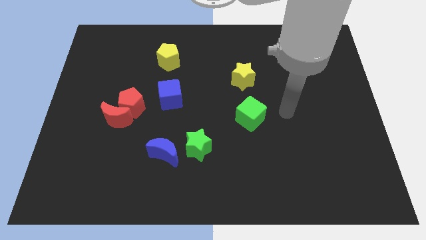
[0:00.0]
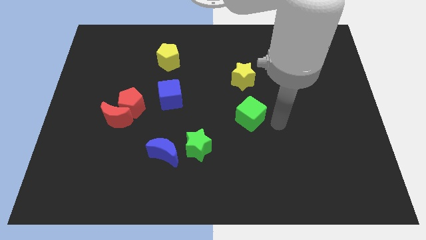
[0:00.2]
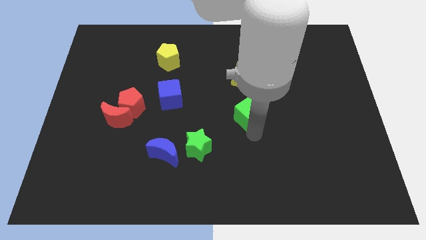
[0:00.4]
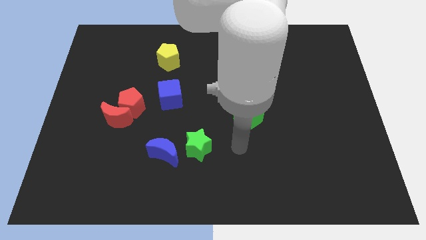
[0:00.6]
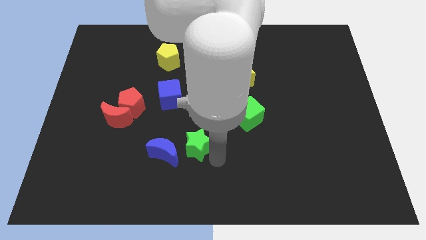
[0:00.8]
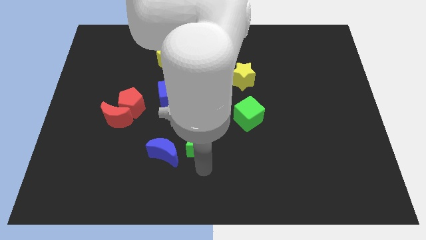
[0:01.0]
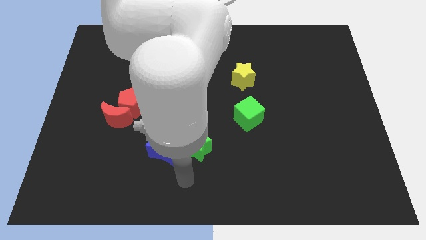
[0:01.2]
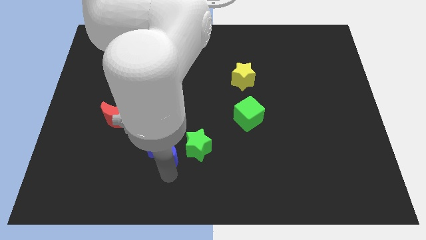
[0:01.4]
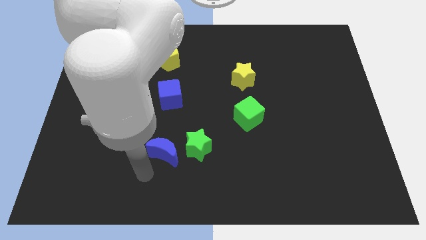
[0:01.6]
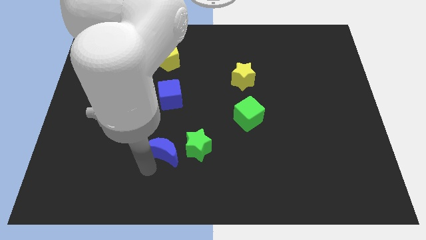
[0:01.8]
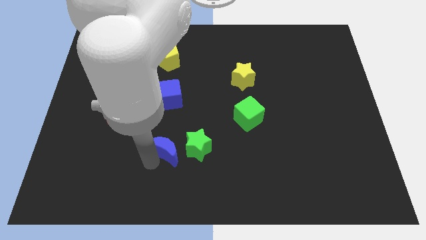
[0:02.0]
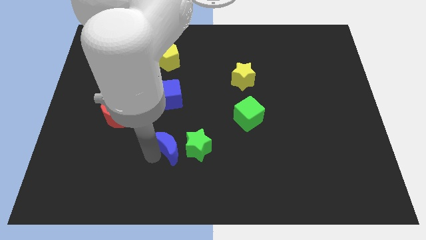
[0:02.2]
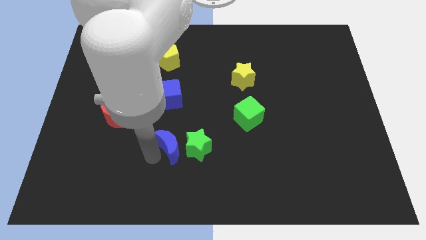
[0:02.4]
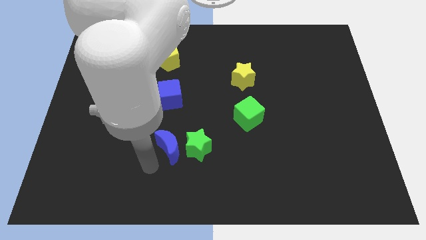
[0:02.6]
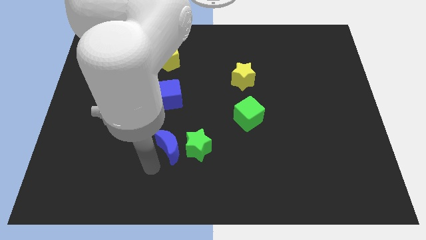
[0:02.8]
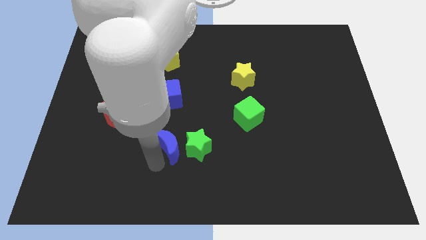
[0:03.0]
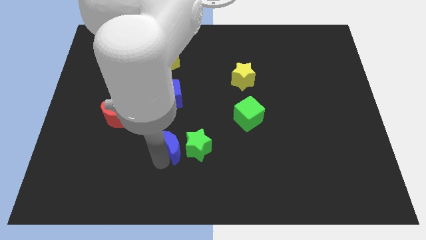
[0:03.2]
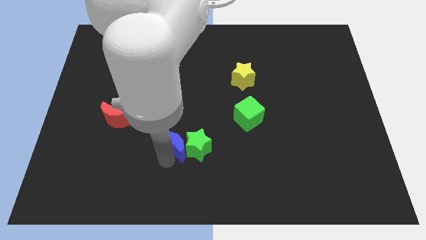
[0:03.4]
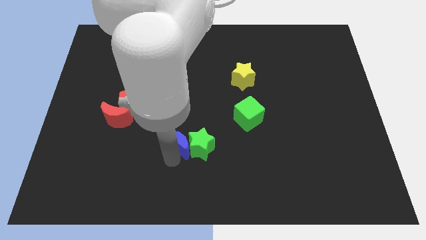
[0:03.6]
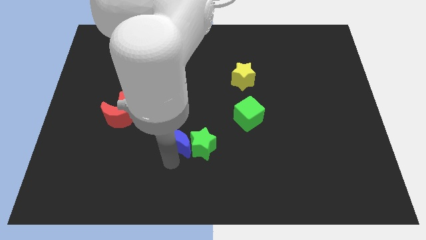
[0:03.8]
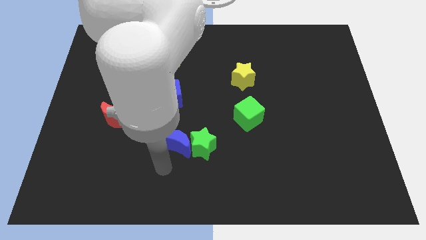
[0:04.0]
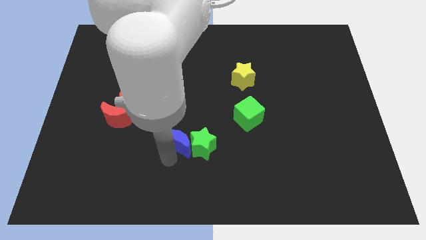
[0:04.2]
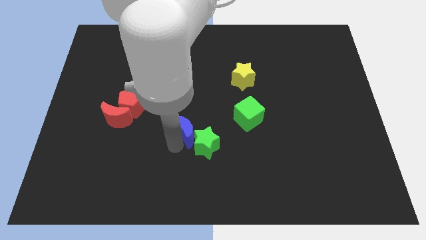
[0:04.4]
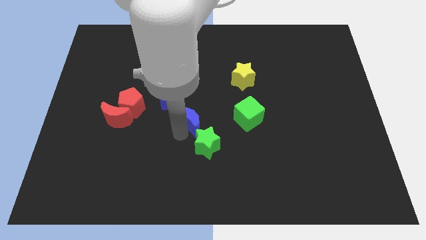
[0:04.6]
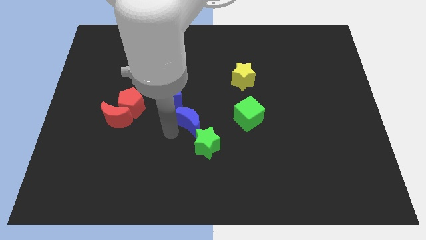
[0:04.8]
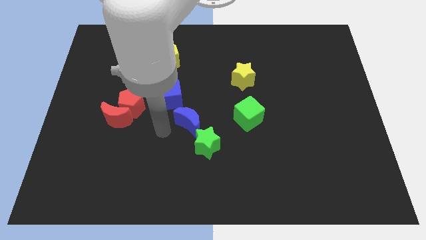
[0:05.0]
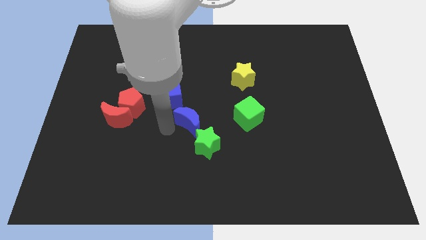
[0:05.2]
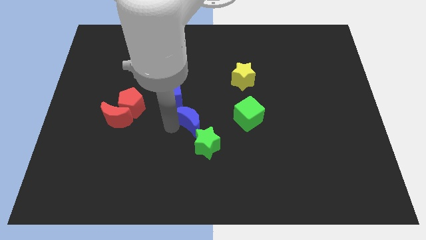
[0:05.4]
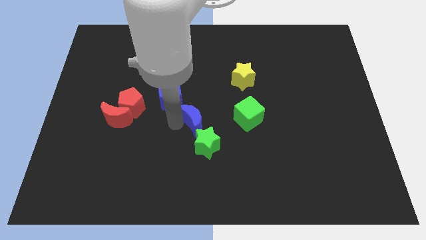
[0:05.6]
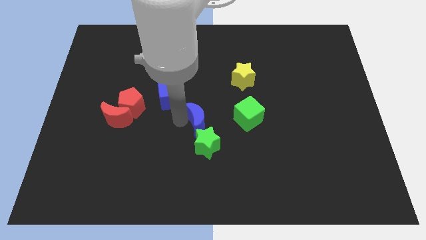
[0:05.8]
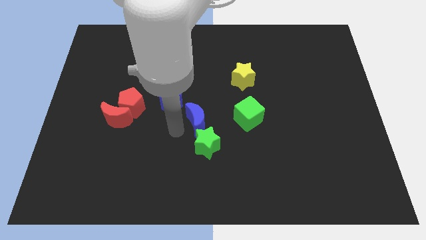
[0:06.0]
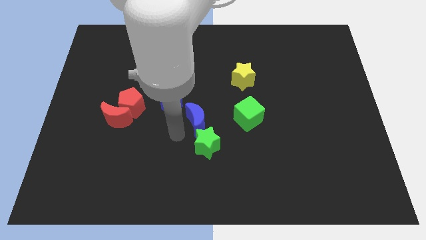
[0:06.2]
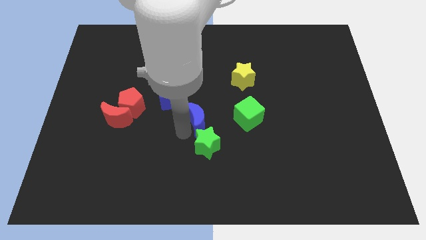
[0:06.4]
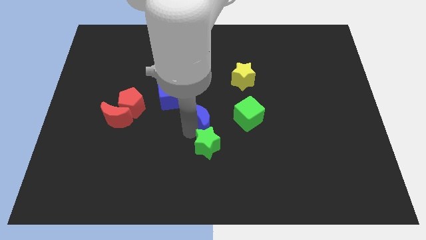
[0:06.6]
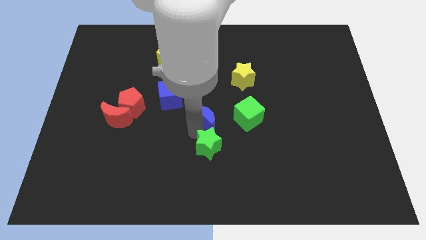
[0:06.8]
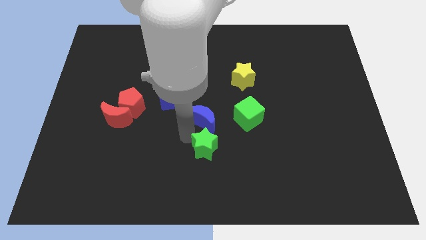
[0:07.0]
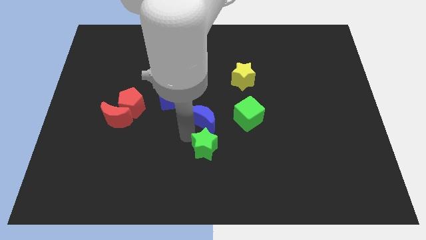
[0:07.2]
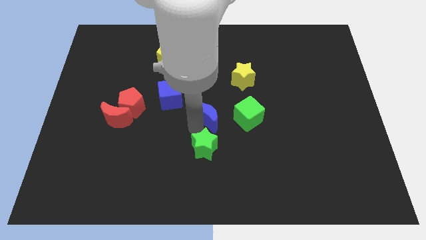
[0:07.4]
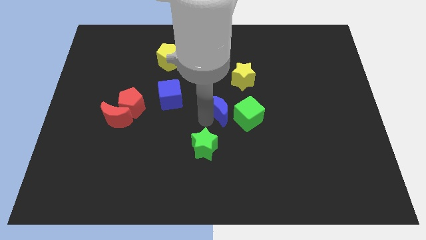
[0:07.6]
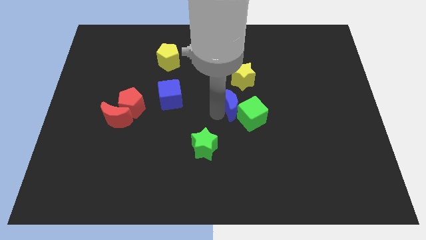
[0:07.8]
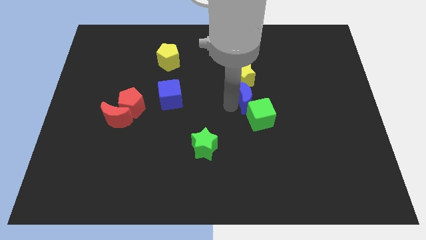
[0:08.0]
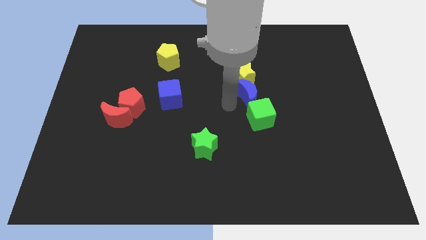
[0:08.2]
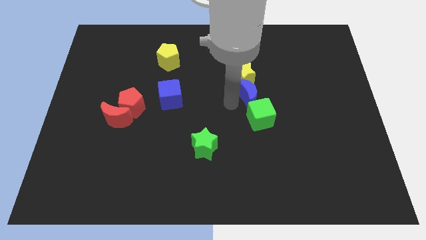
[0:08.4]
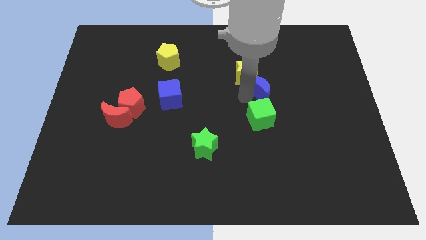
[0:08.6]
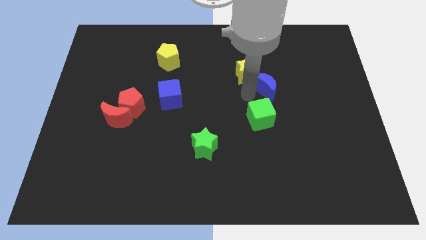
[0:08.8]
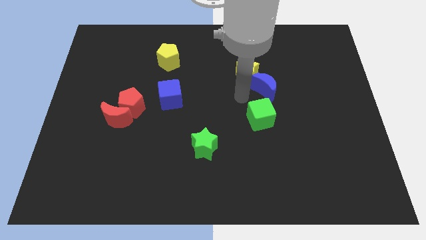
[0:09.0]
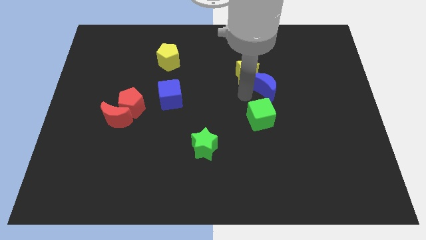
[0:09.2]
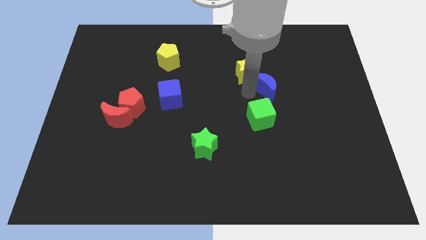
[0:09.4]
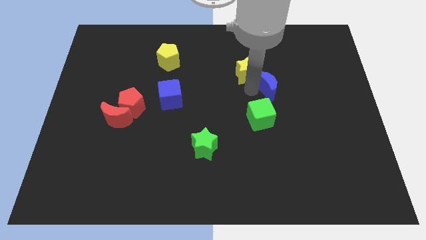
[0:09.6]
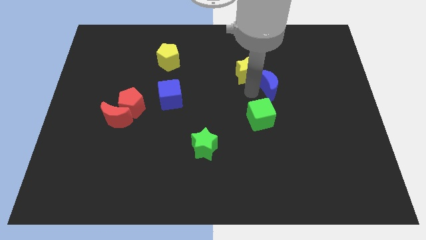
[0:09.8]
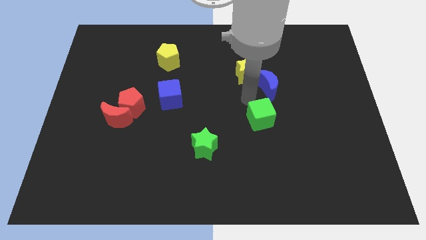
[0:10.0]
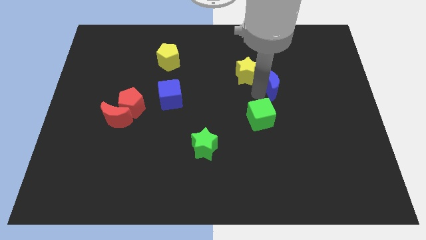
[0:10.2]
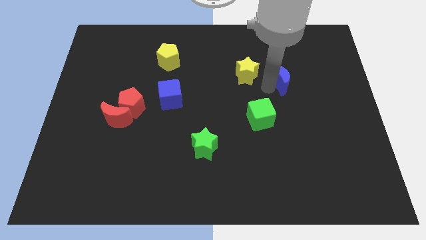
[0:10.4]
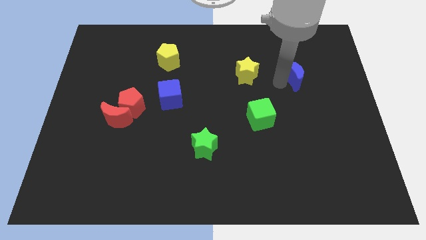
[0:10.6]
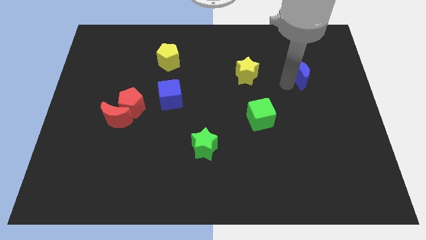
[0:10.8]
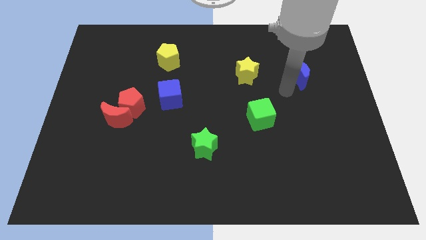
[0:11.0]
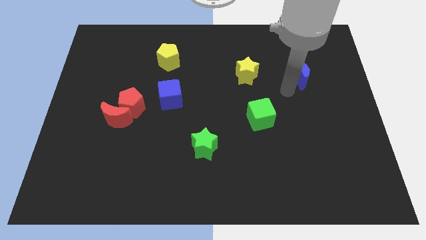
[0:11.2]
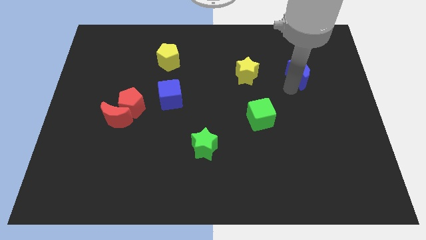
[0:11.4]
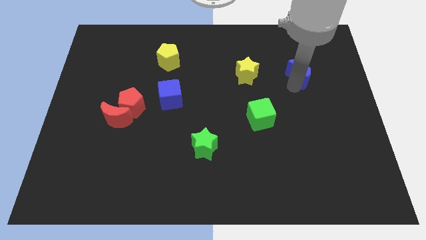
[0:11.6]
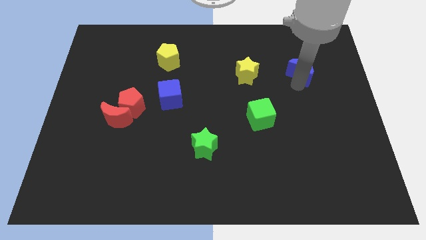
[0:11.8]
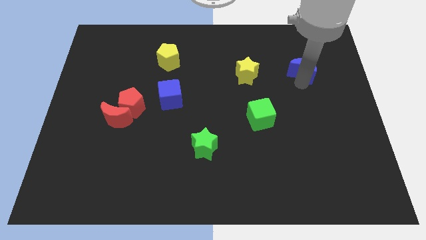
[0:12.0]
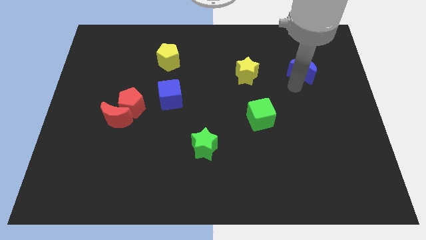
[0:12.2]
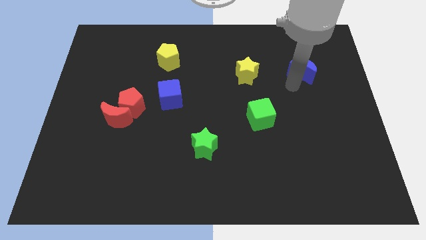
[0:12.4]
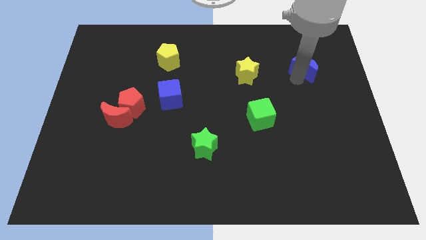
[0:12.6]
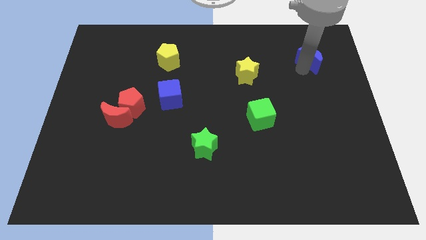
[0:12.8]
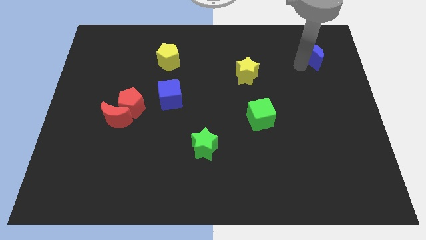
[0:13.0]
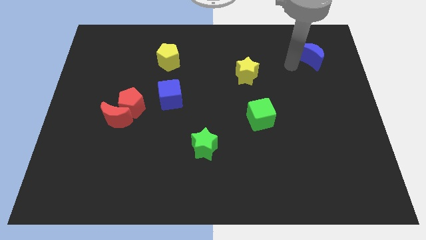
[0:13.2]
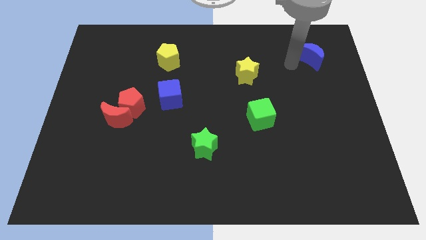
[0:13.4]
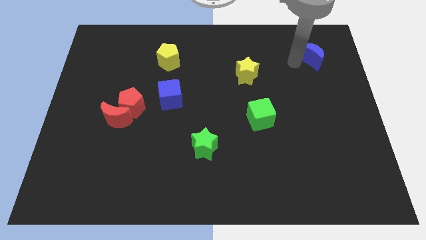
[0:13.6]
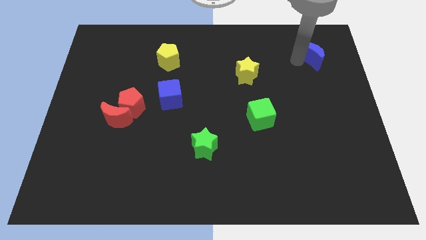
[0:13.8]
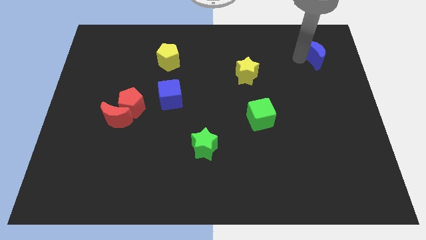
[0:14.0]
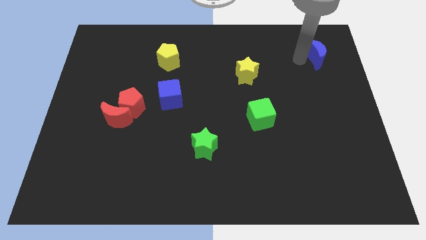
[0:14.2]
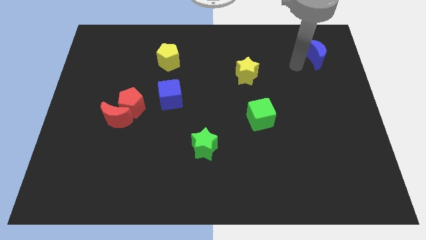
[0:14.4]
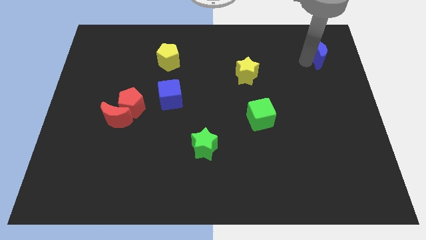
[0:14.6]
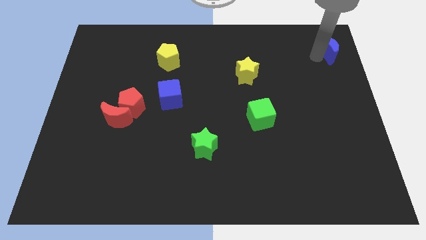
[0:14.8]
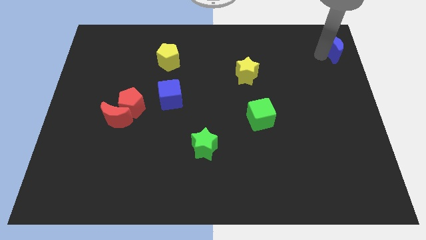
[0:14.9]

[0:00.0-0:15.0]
slide the blue moon to the top right

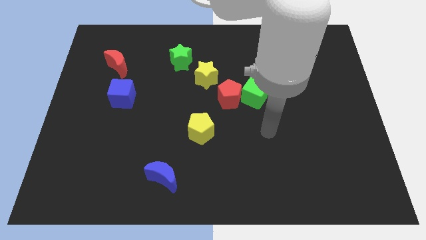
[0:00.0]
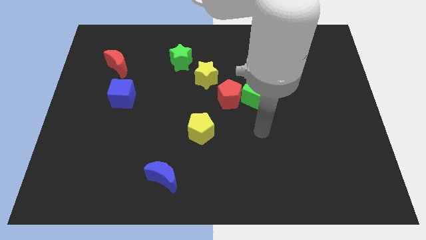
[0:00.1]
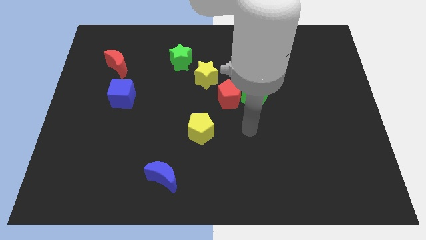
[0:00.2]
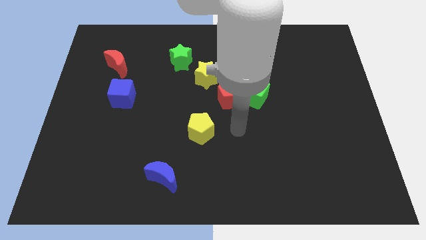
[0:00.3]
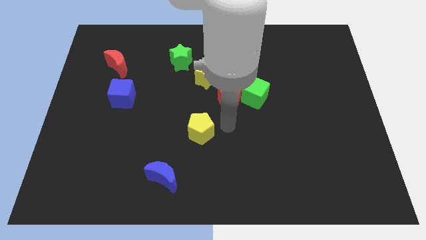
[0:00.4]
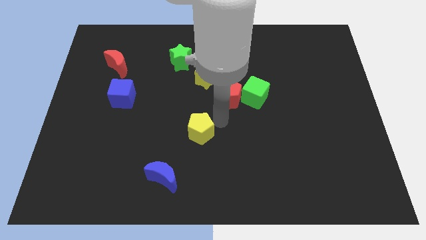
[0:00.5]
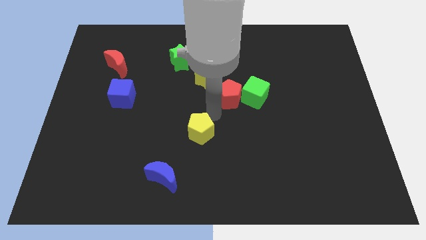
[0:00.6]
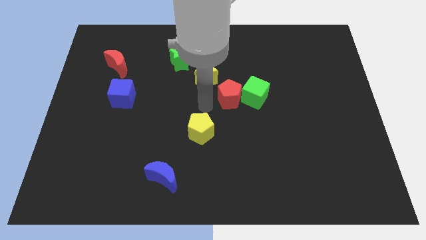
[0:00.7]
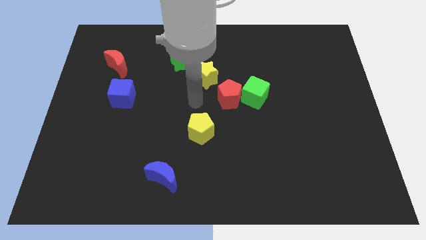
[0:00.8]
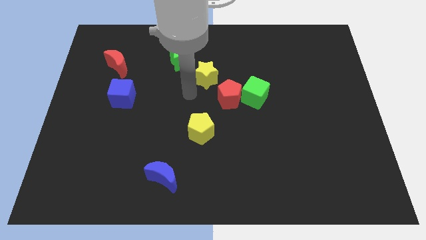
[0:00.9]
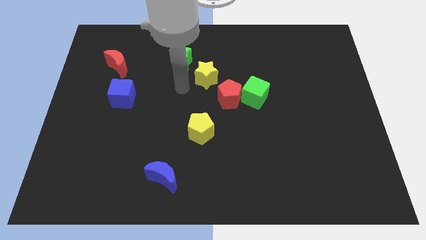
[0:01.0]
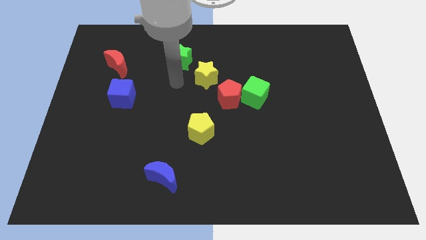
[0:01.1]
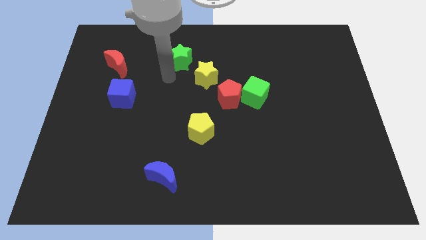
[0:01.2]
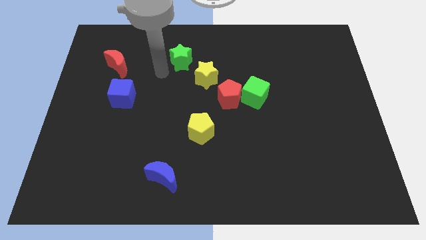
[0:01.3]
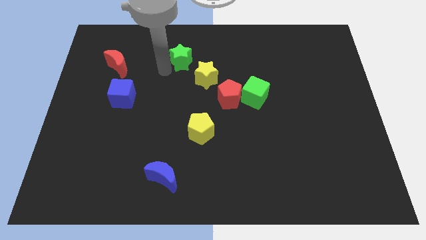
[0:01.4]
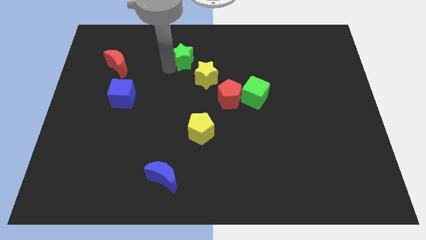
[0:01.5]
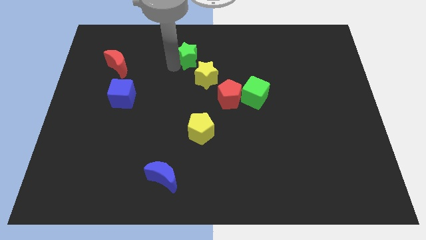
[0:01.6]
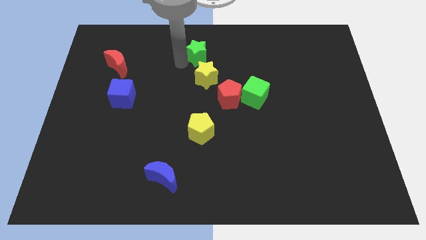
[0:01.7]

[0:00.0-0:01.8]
slide the green star to the top side
